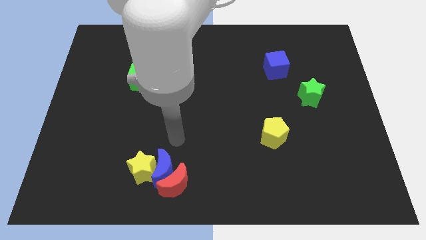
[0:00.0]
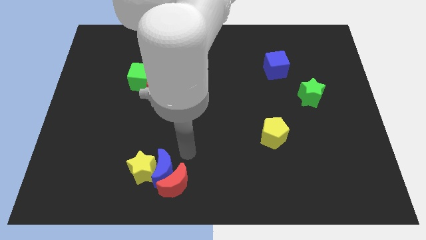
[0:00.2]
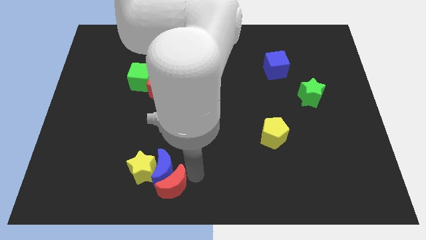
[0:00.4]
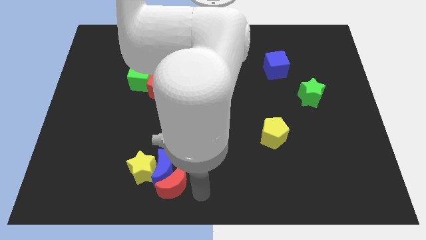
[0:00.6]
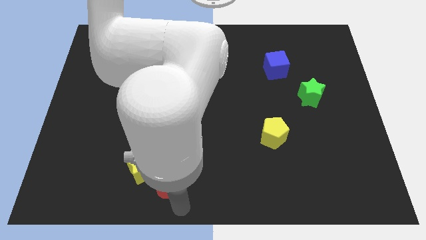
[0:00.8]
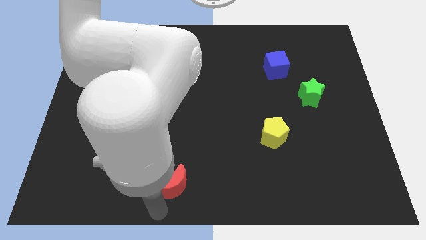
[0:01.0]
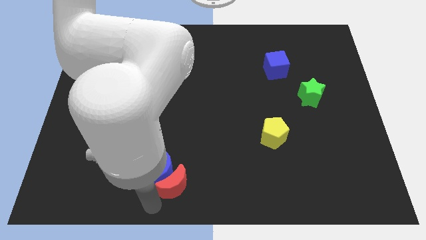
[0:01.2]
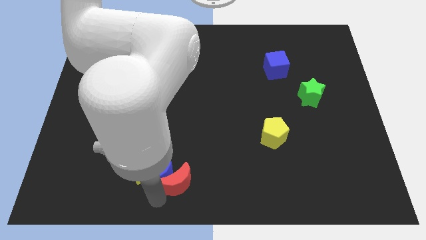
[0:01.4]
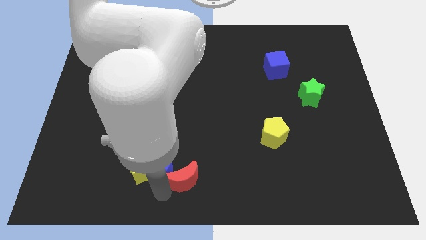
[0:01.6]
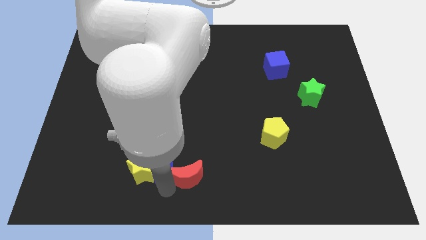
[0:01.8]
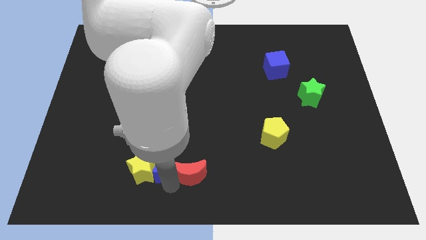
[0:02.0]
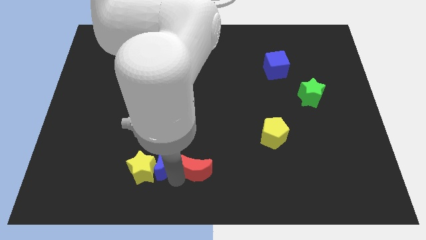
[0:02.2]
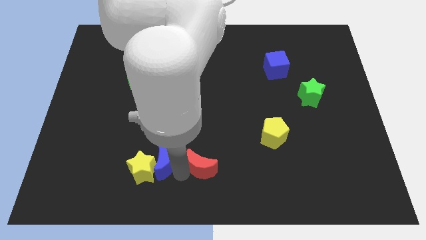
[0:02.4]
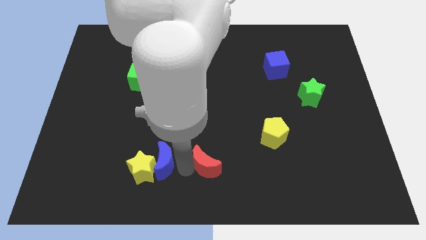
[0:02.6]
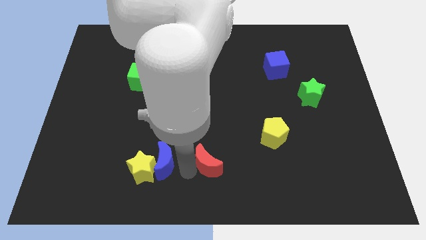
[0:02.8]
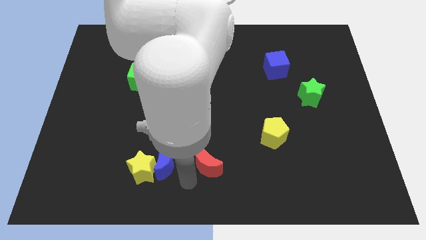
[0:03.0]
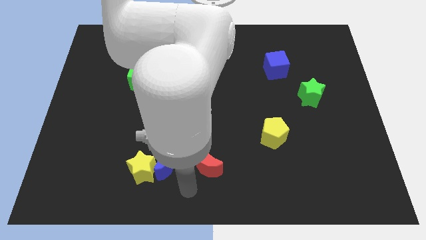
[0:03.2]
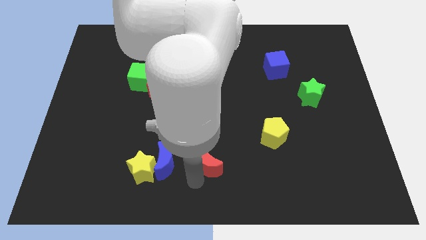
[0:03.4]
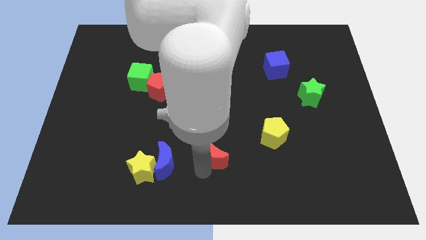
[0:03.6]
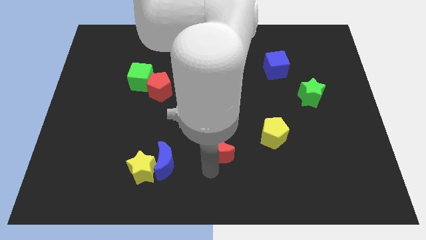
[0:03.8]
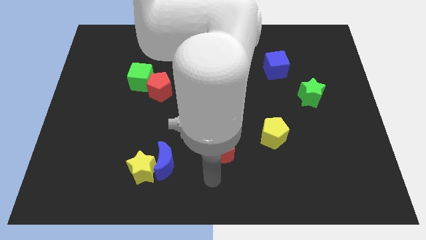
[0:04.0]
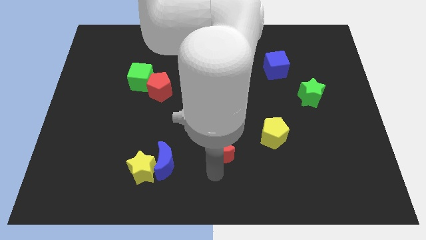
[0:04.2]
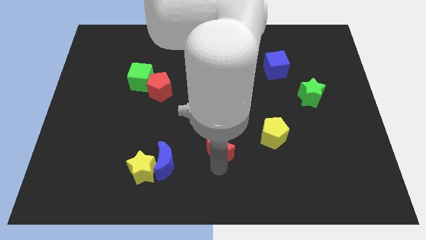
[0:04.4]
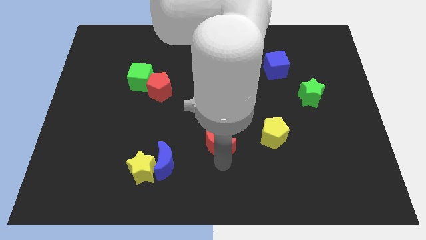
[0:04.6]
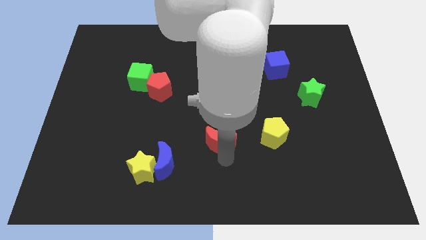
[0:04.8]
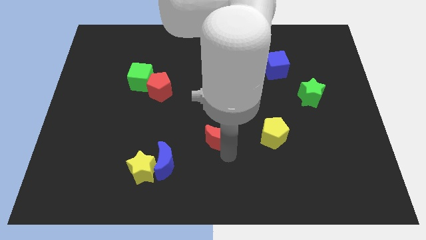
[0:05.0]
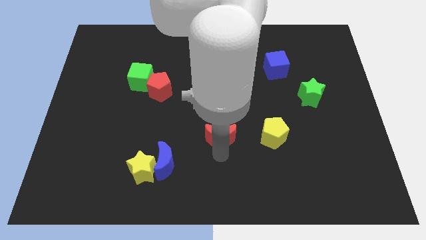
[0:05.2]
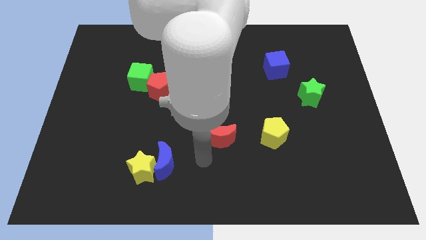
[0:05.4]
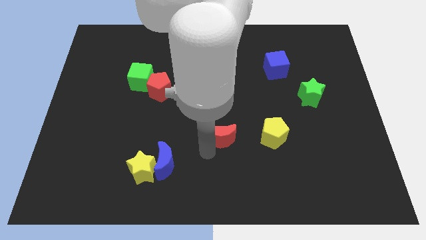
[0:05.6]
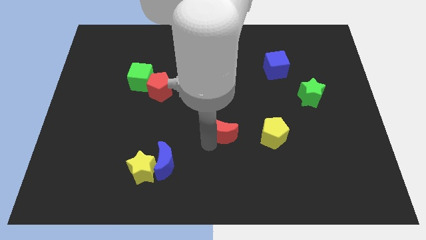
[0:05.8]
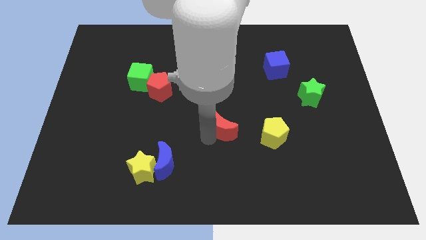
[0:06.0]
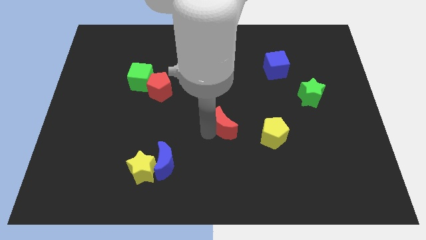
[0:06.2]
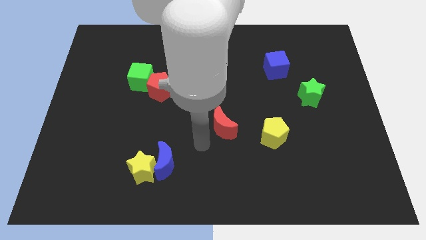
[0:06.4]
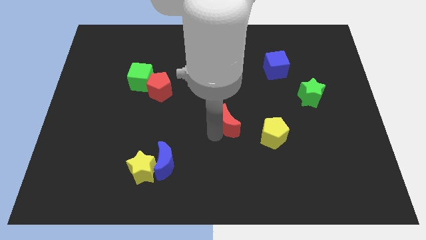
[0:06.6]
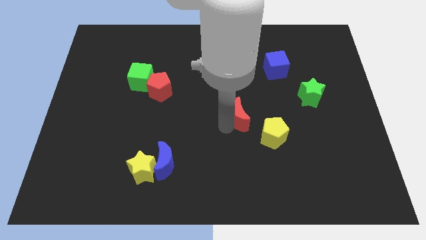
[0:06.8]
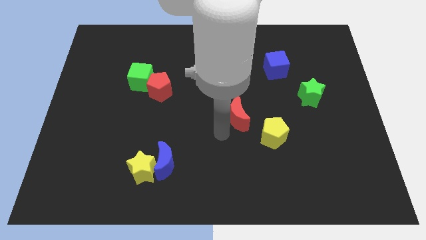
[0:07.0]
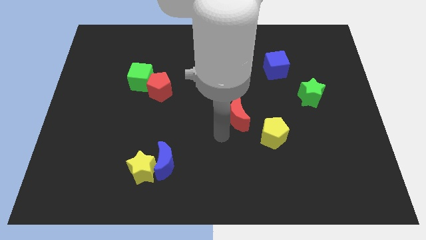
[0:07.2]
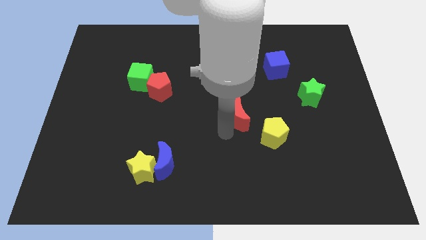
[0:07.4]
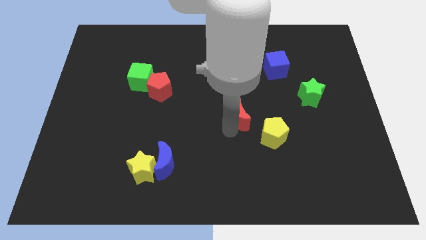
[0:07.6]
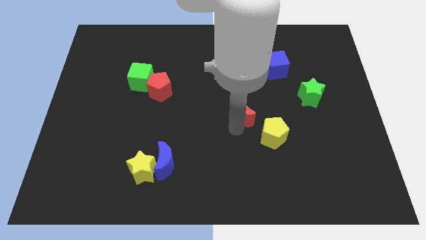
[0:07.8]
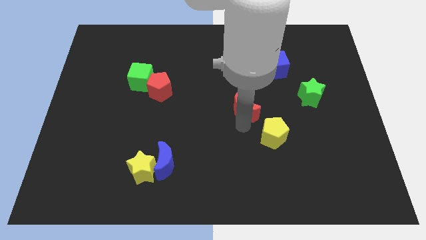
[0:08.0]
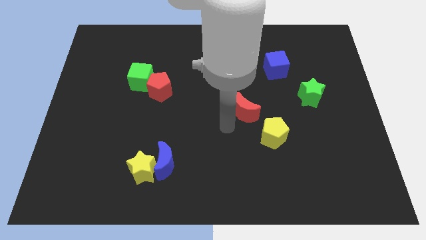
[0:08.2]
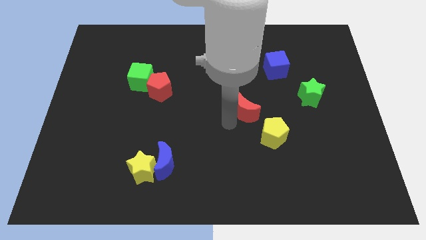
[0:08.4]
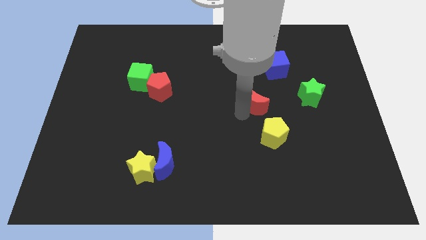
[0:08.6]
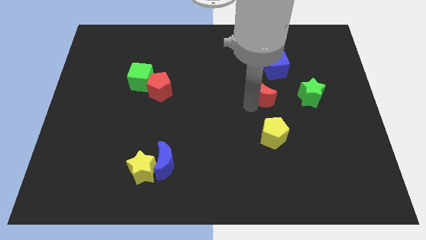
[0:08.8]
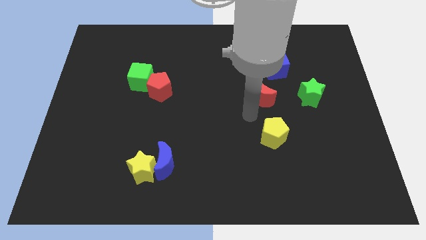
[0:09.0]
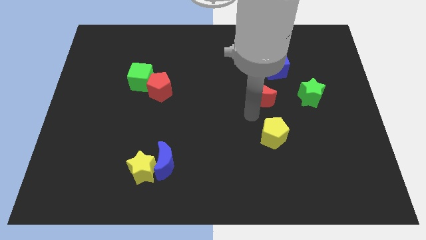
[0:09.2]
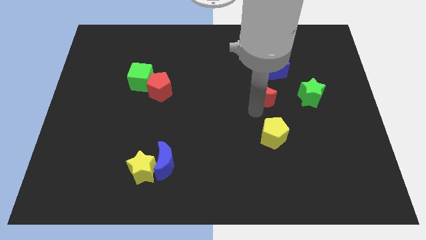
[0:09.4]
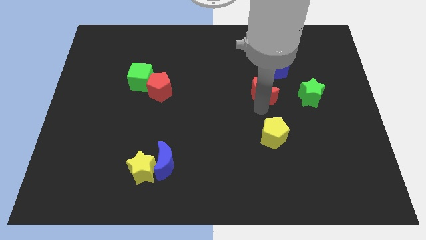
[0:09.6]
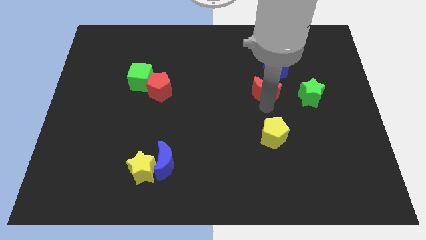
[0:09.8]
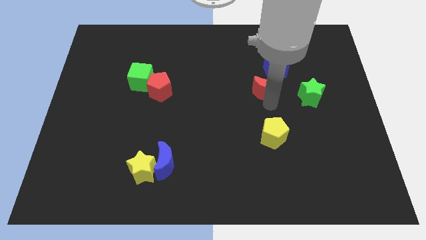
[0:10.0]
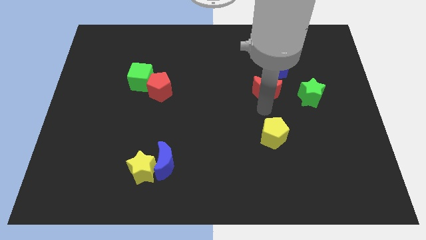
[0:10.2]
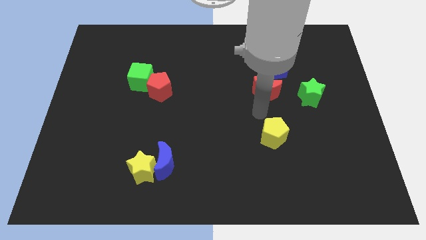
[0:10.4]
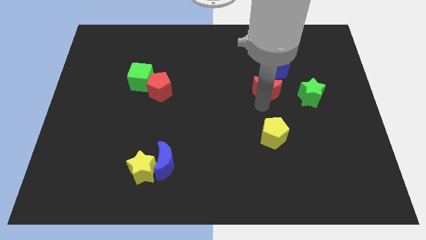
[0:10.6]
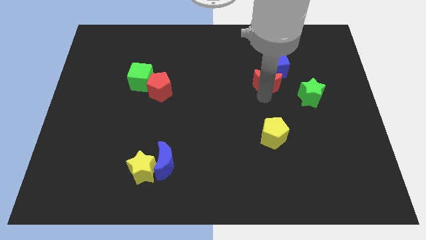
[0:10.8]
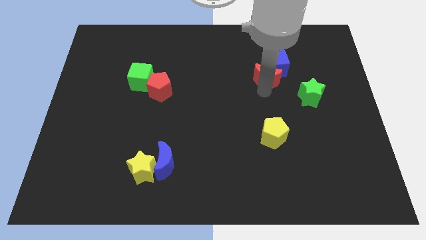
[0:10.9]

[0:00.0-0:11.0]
put the red moon towards the blue cube

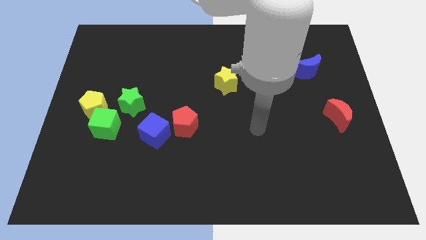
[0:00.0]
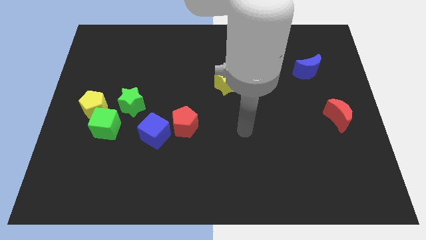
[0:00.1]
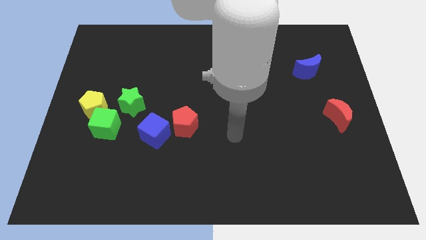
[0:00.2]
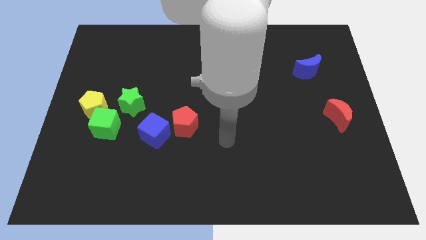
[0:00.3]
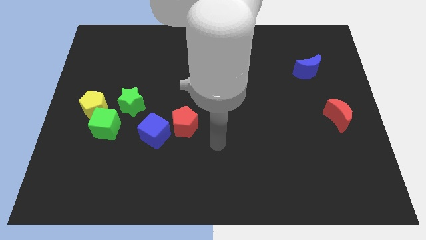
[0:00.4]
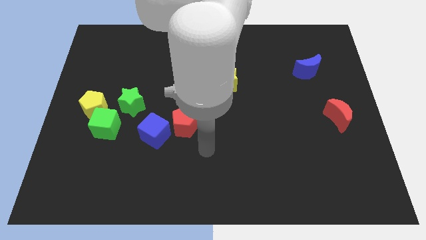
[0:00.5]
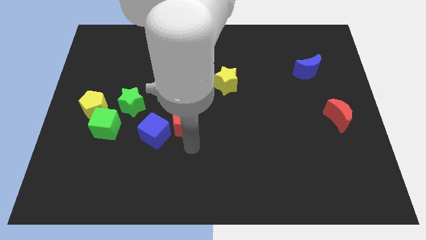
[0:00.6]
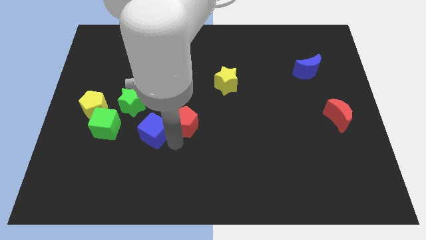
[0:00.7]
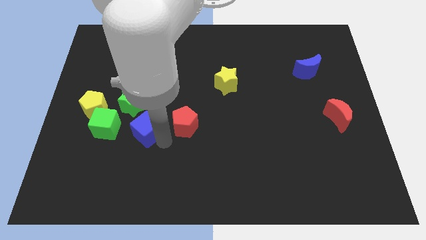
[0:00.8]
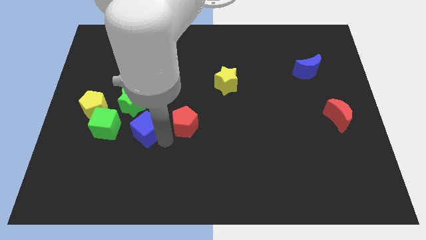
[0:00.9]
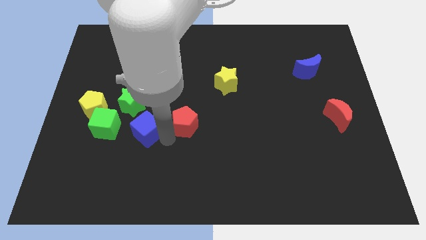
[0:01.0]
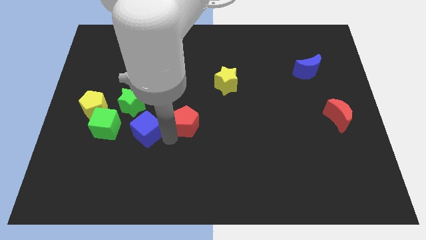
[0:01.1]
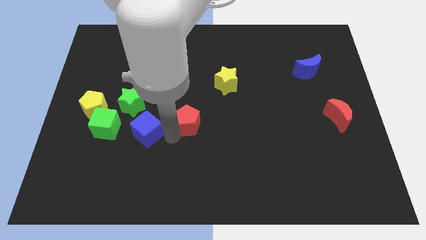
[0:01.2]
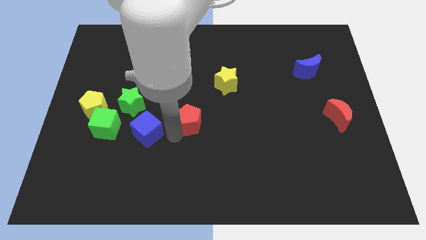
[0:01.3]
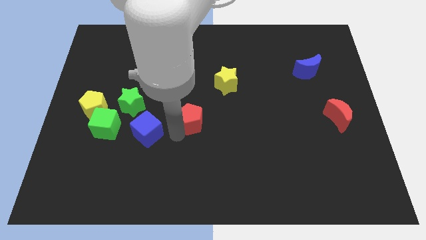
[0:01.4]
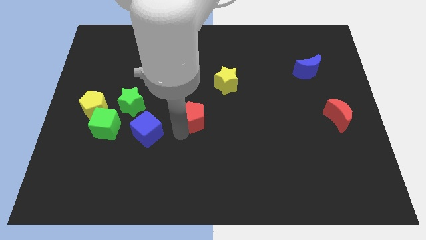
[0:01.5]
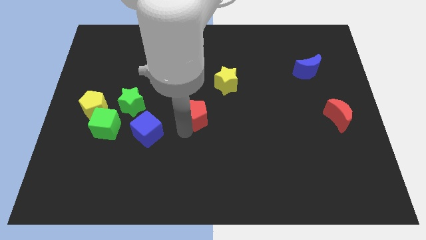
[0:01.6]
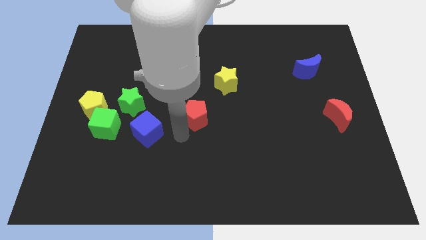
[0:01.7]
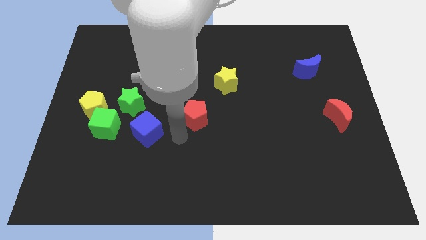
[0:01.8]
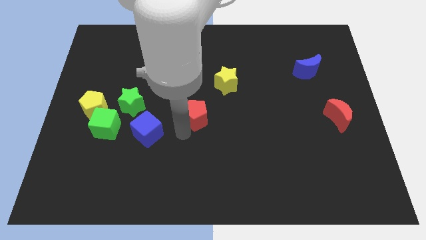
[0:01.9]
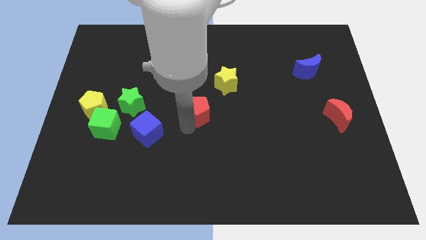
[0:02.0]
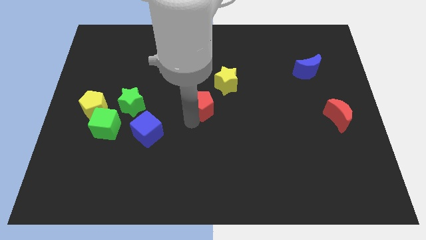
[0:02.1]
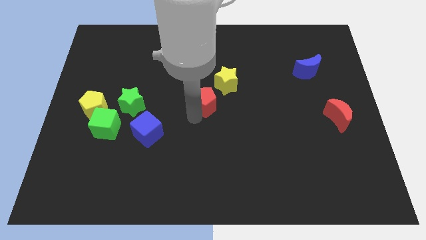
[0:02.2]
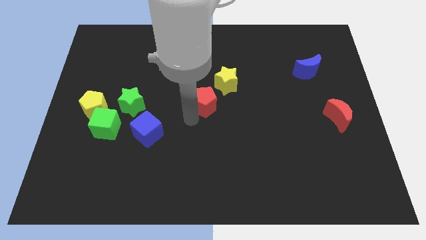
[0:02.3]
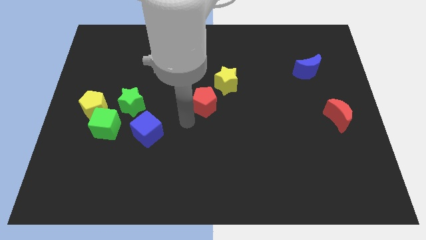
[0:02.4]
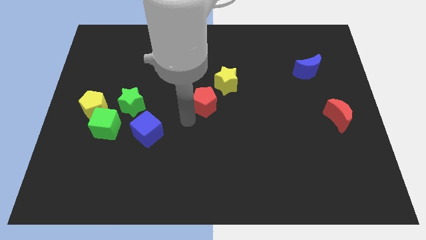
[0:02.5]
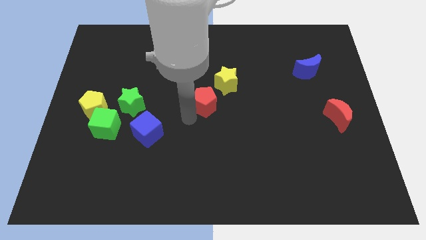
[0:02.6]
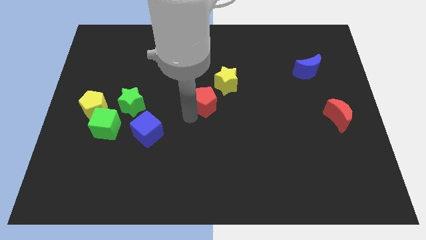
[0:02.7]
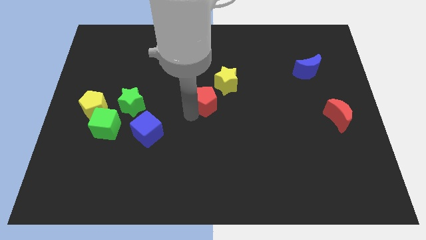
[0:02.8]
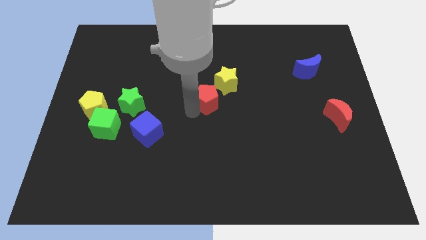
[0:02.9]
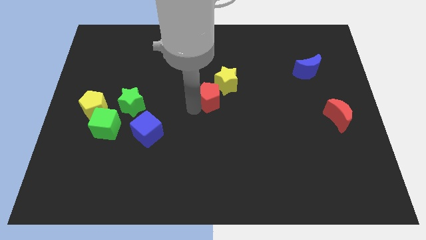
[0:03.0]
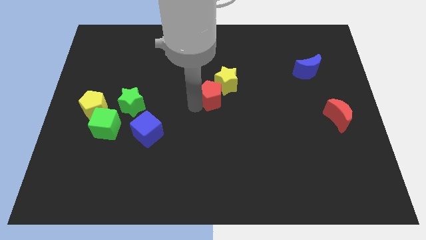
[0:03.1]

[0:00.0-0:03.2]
push the red pentagon to the yellow star
